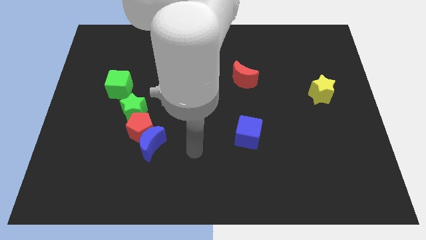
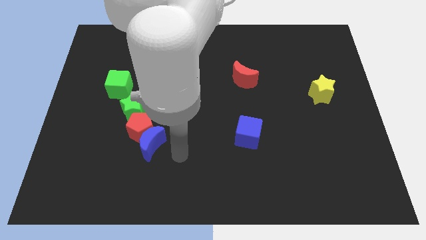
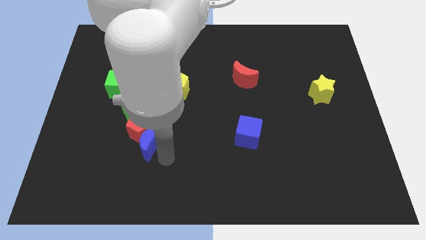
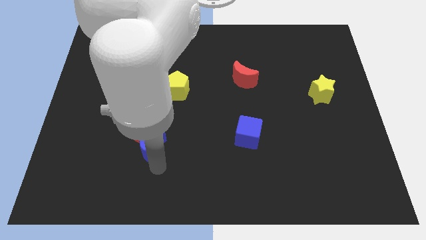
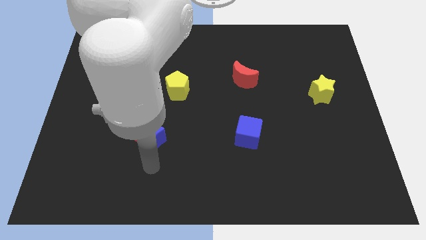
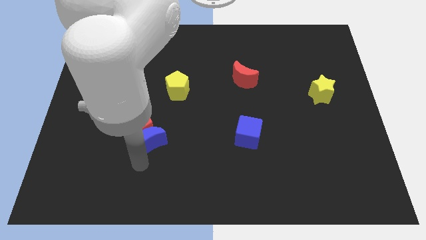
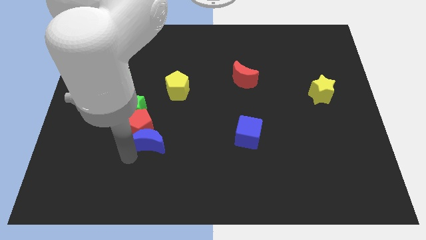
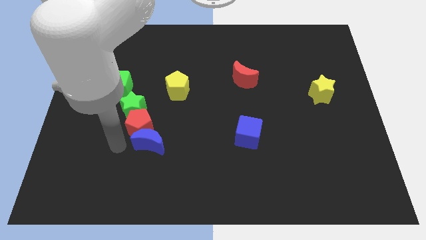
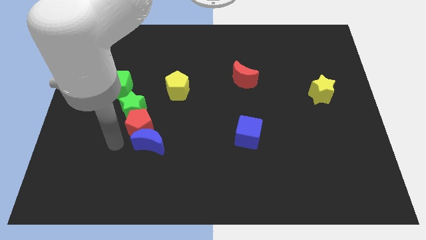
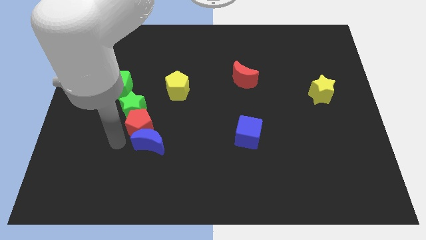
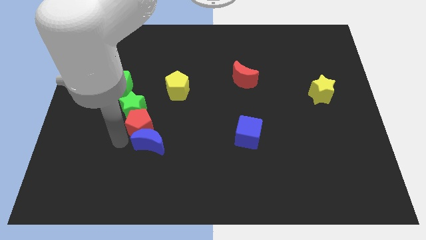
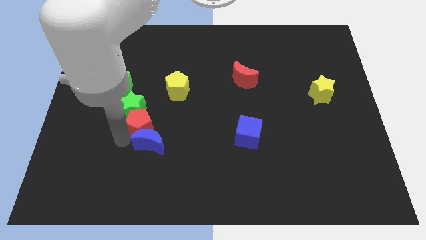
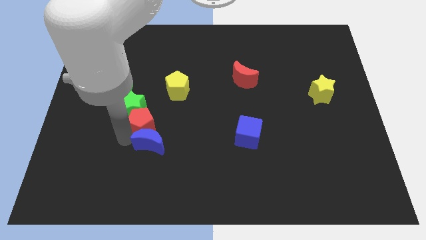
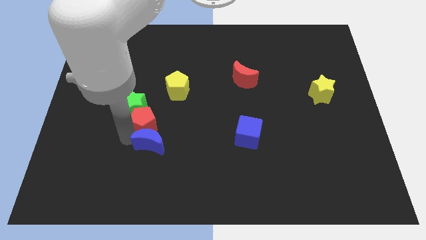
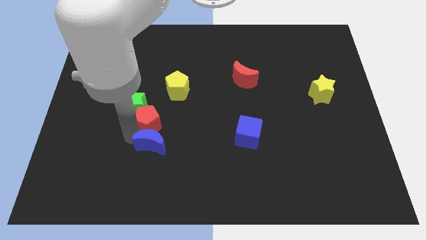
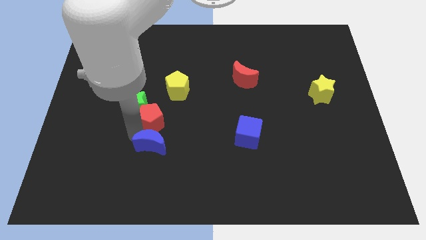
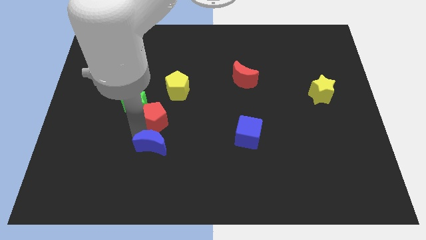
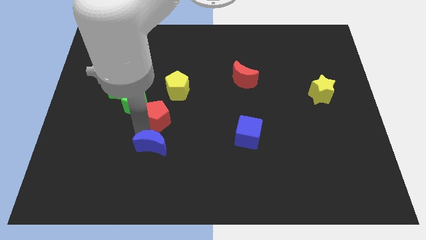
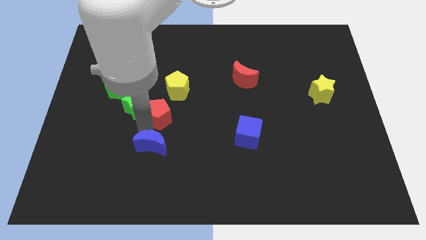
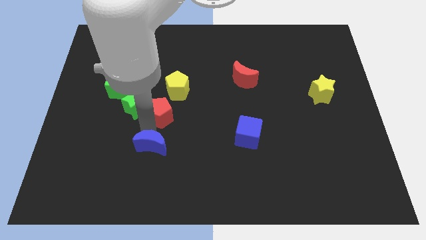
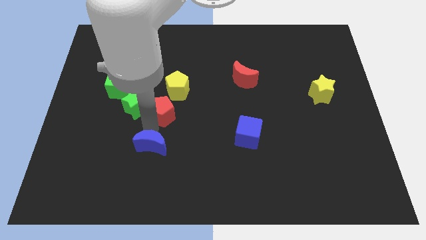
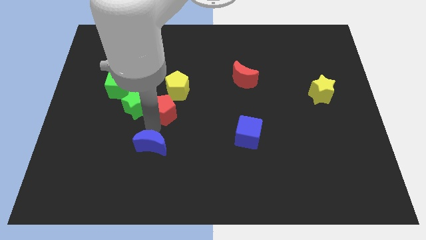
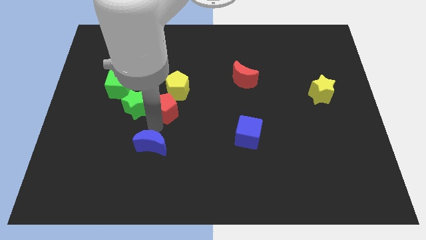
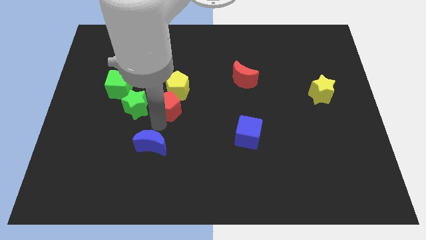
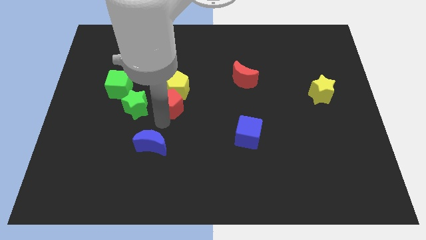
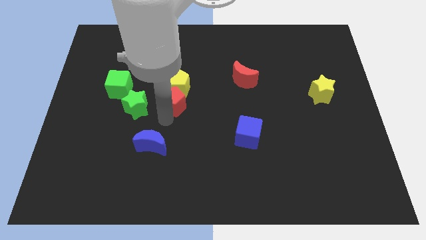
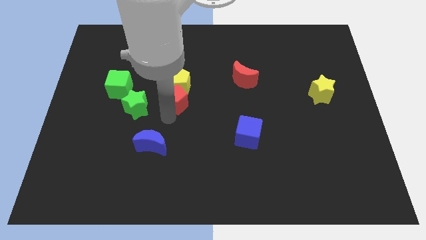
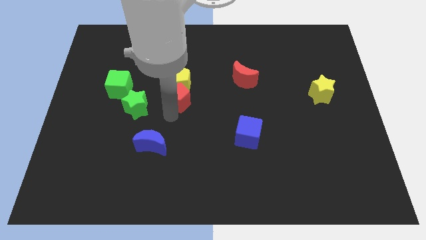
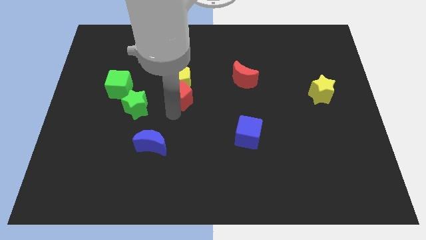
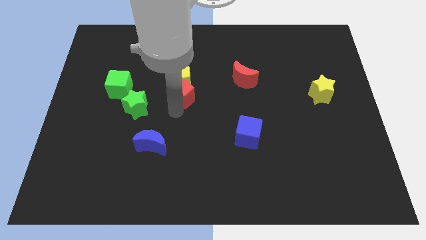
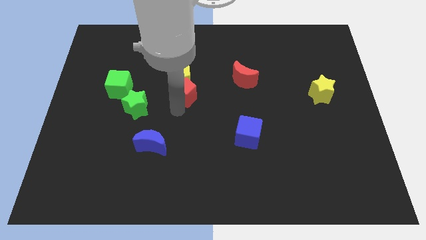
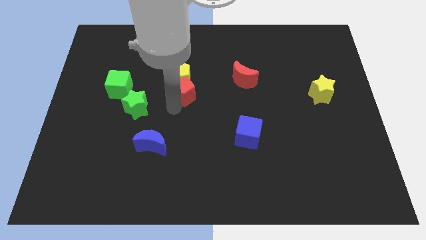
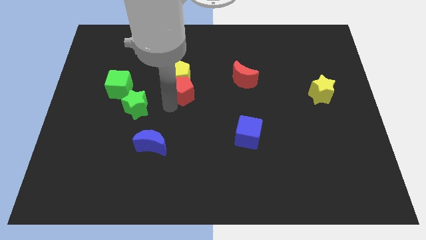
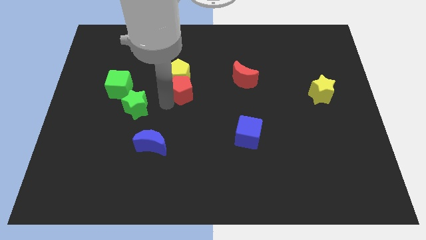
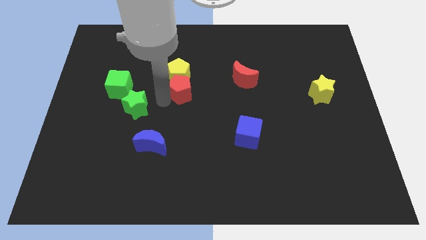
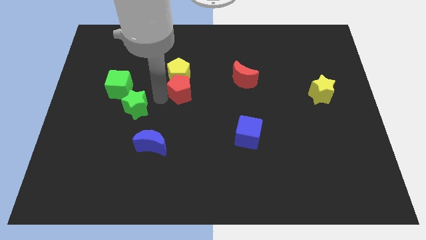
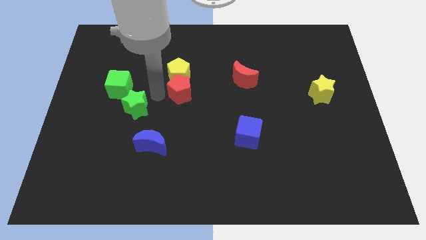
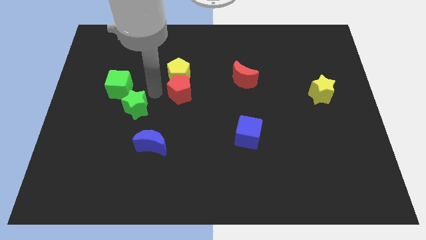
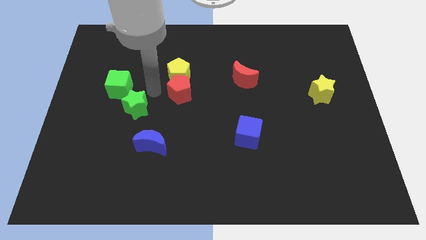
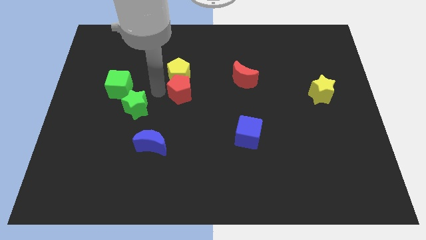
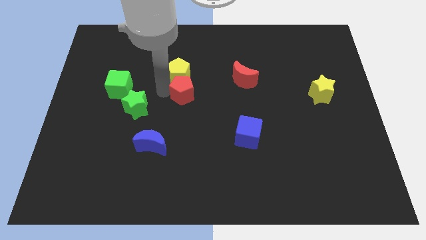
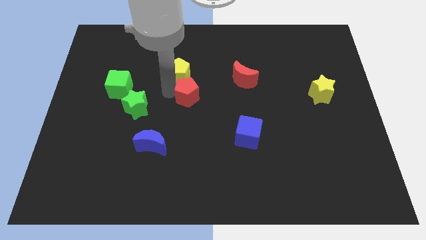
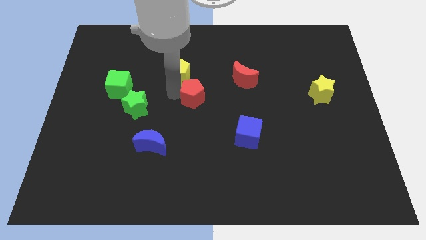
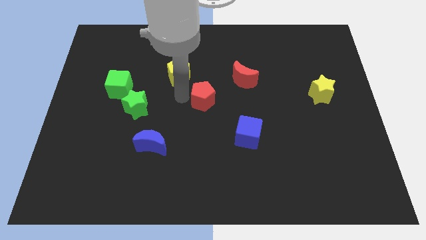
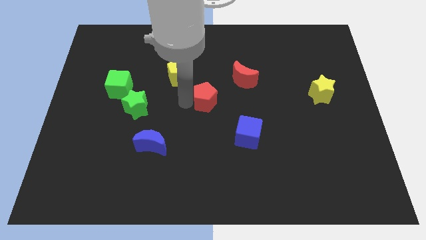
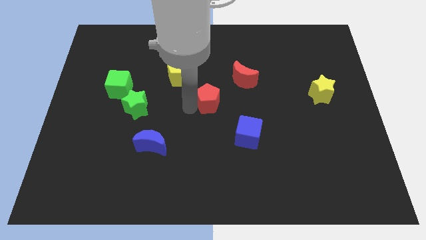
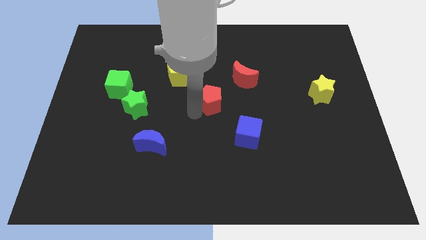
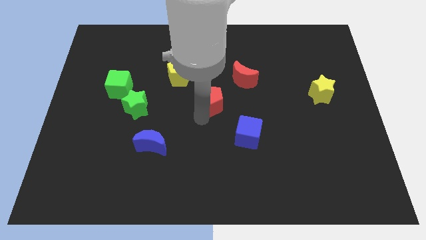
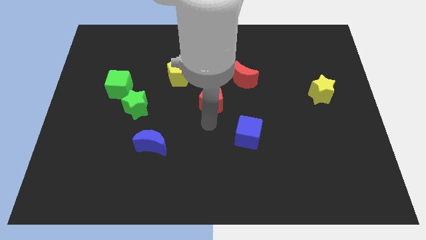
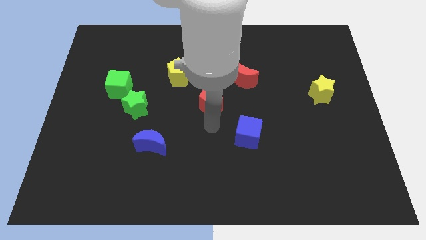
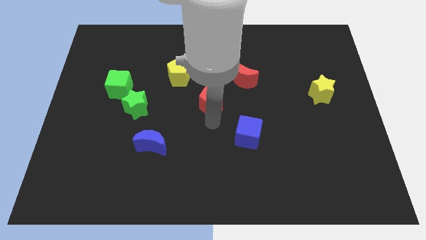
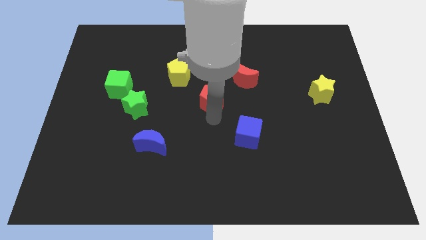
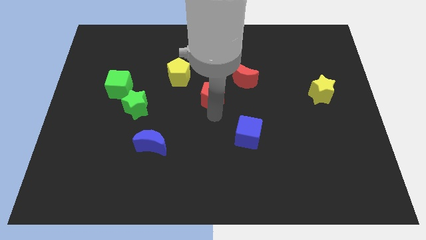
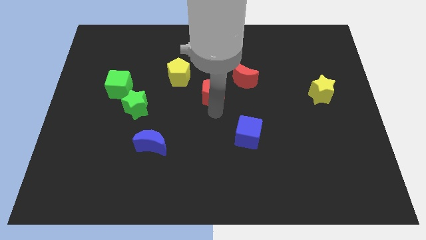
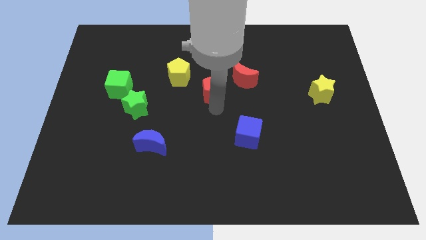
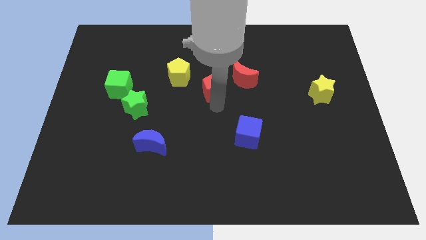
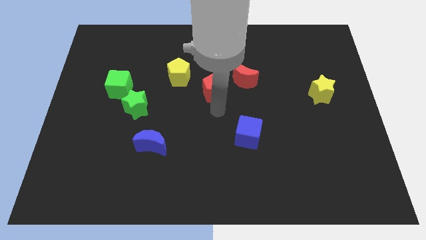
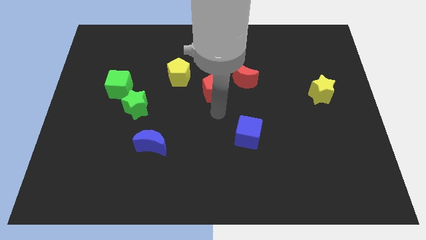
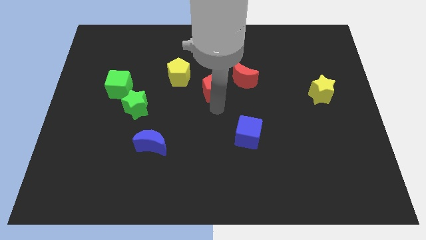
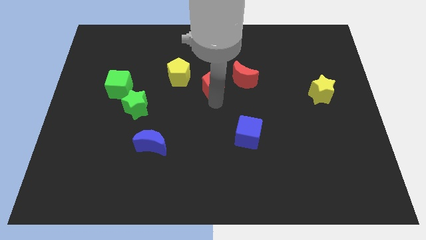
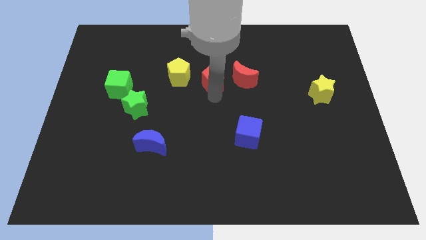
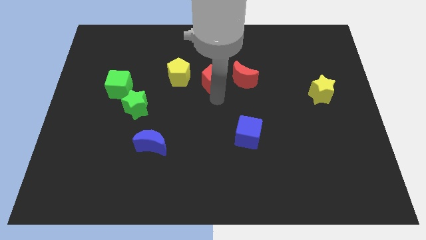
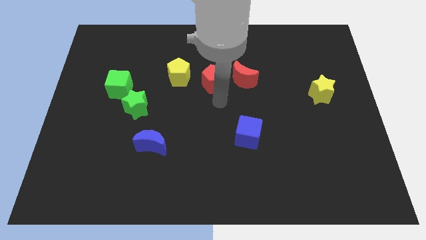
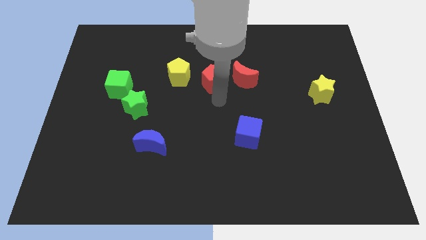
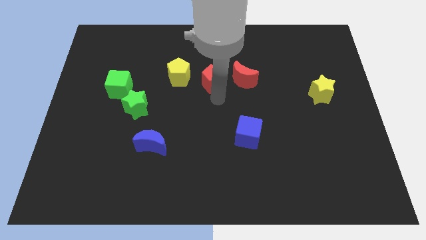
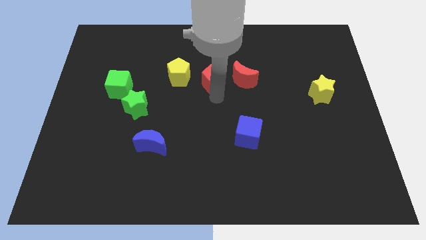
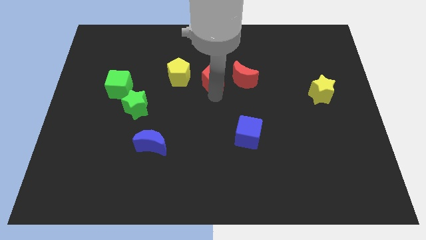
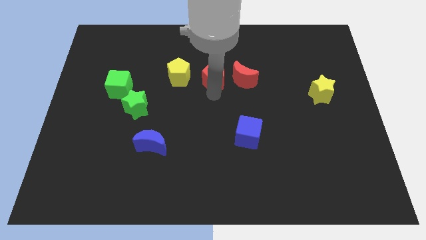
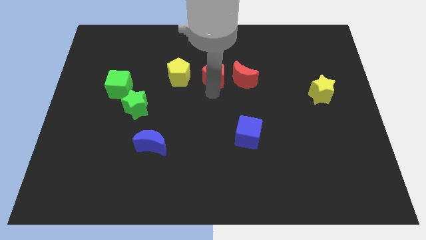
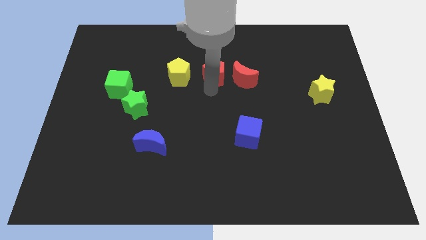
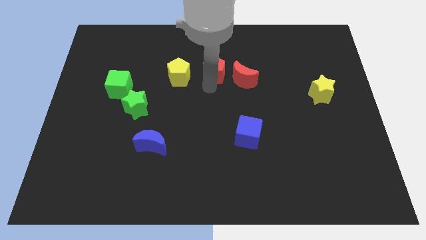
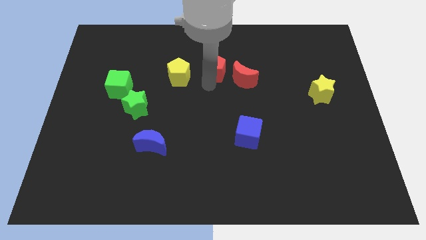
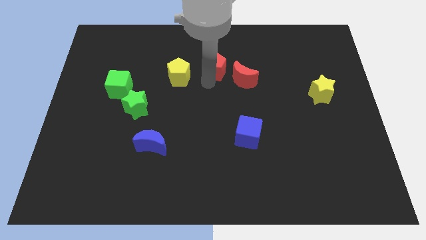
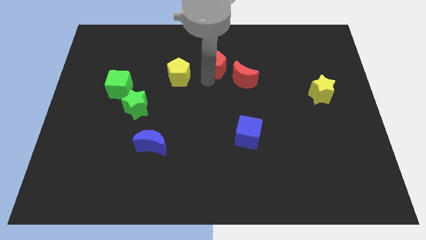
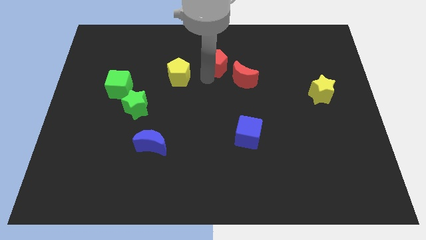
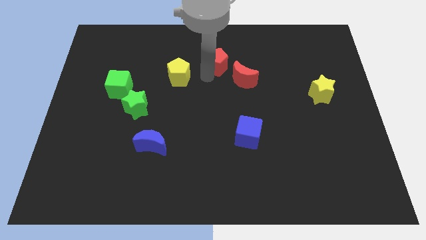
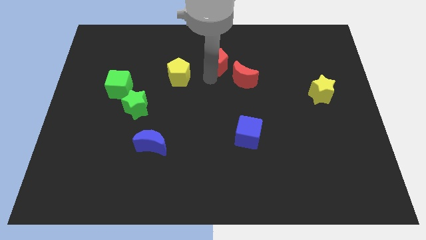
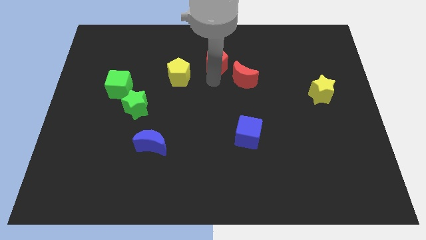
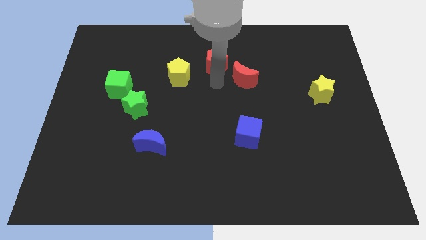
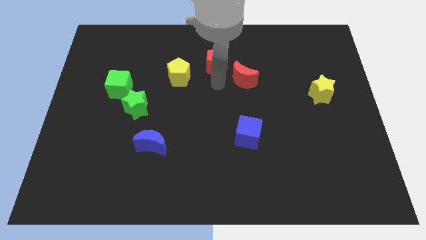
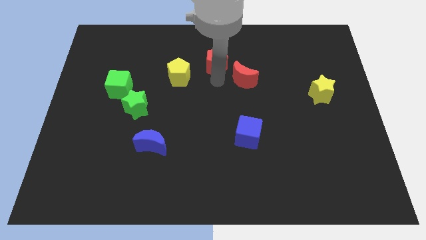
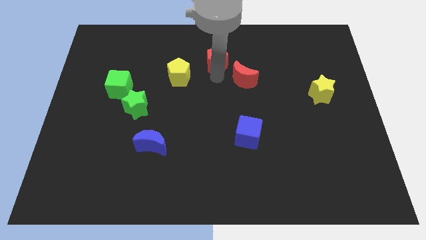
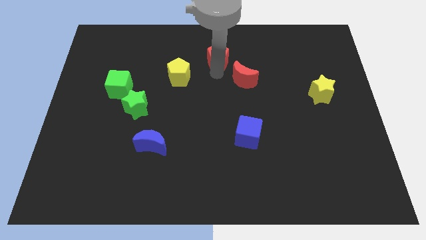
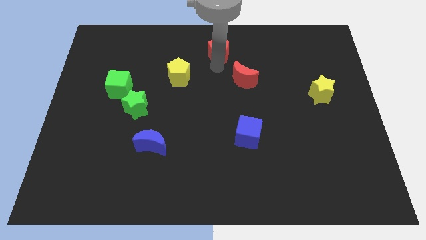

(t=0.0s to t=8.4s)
push the red pentagon to the top side

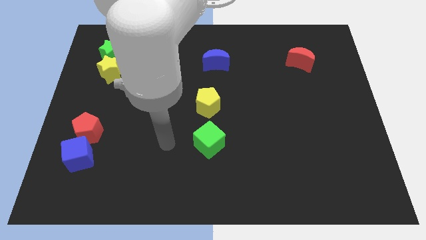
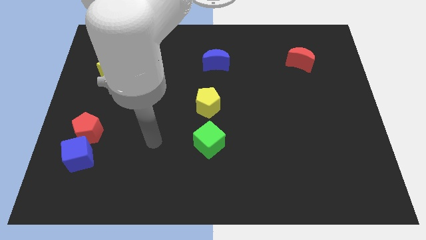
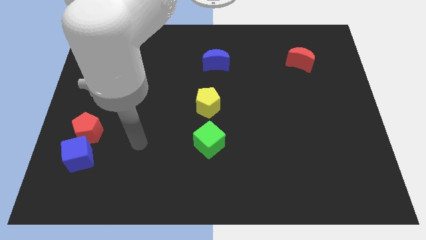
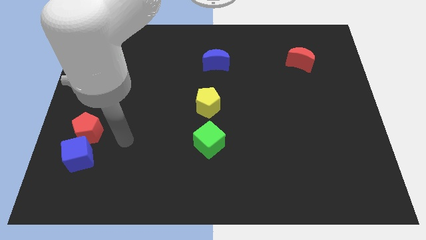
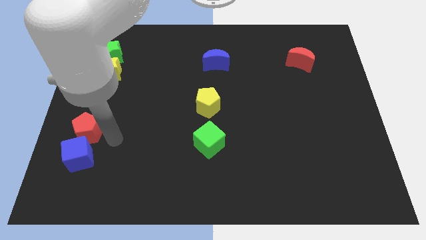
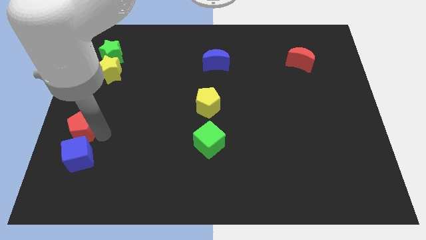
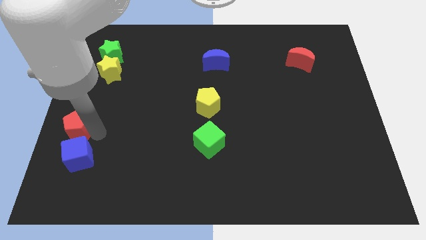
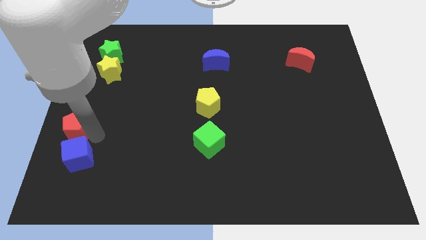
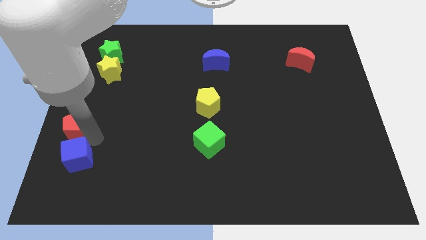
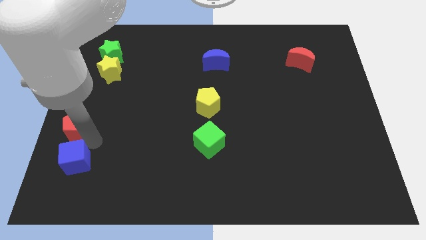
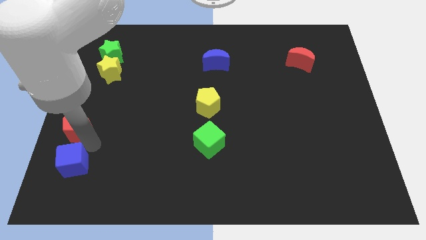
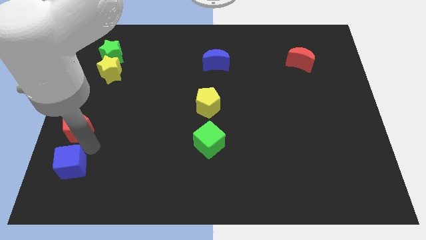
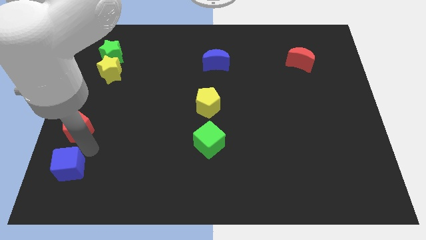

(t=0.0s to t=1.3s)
move the blue cube to the bottom left corner
